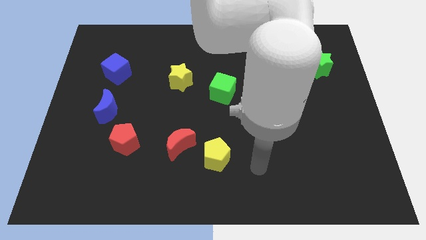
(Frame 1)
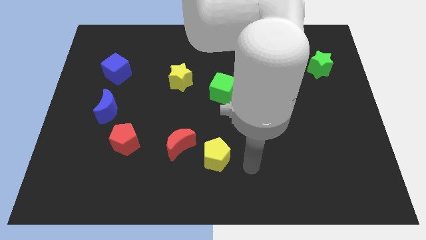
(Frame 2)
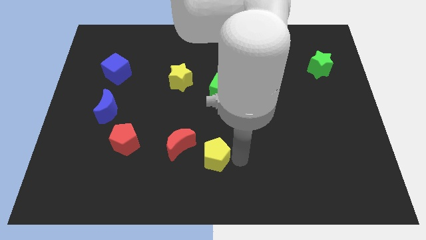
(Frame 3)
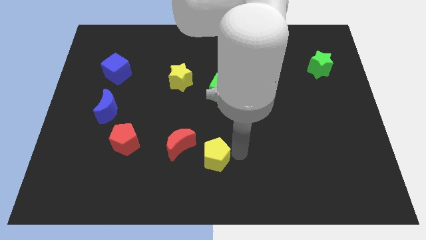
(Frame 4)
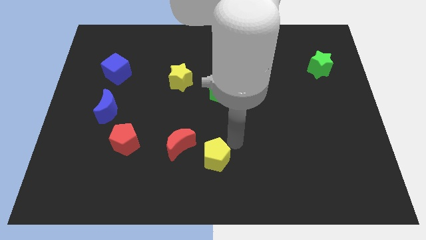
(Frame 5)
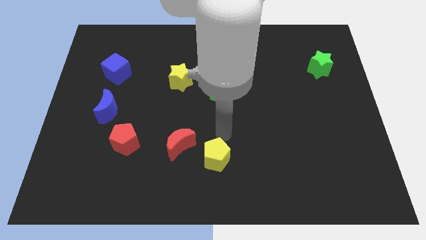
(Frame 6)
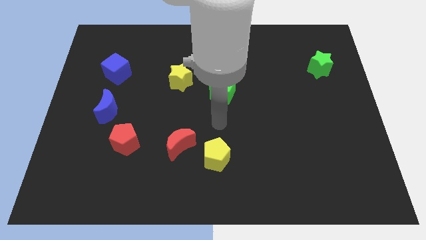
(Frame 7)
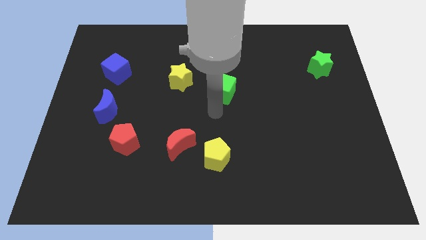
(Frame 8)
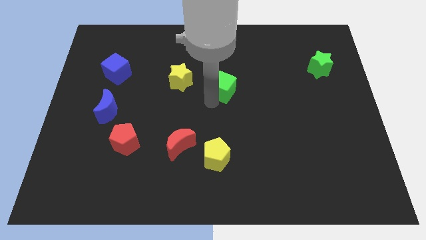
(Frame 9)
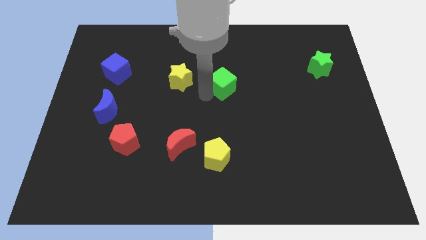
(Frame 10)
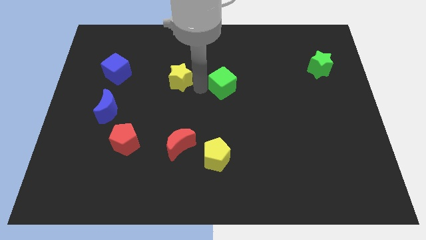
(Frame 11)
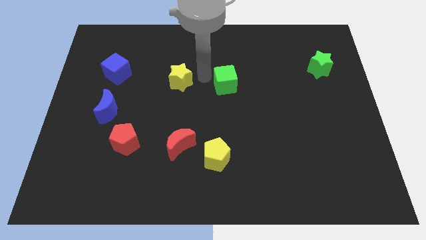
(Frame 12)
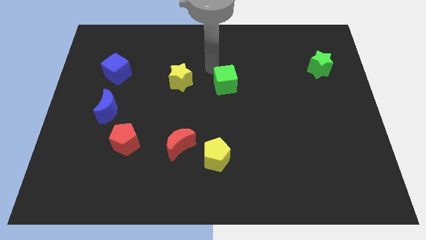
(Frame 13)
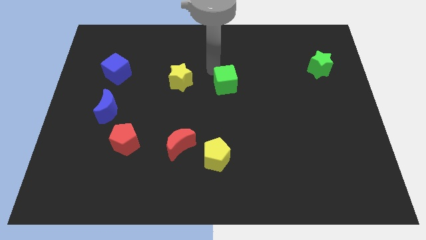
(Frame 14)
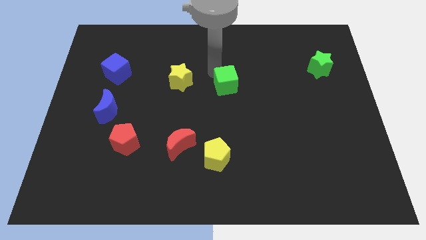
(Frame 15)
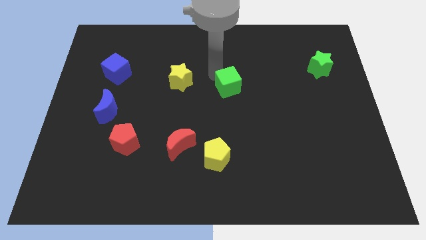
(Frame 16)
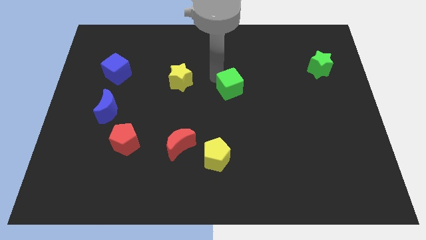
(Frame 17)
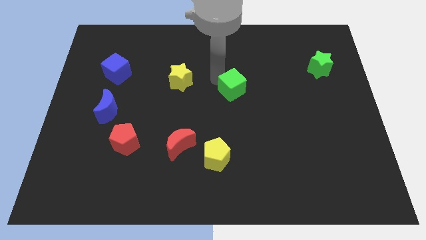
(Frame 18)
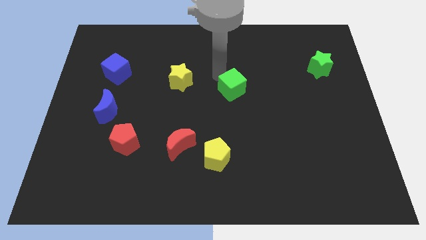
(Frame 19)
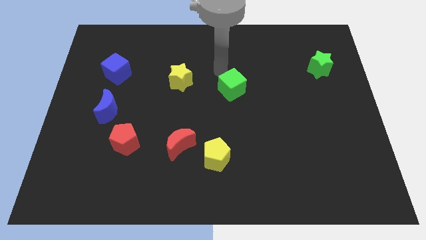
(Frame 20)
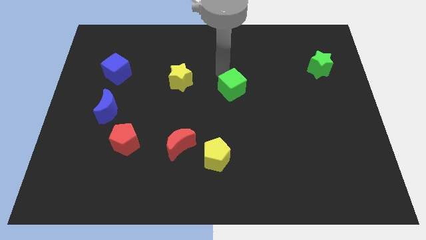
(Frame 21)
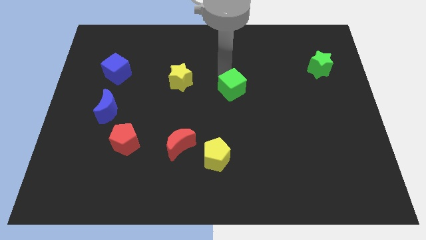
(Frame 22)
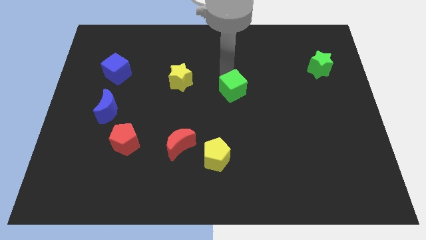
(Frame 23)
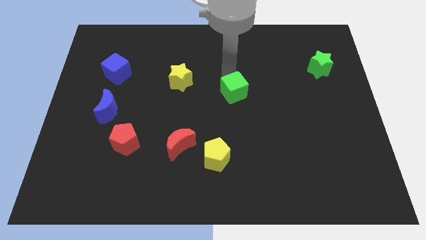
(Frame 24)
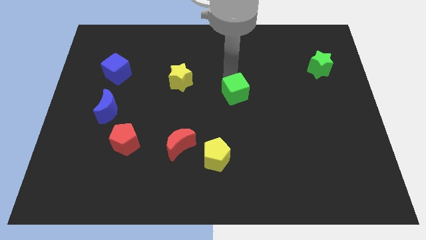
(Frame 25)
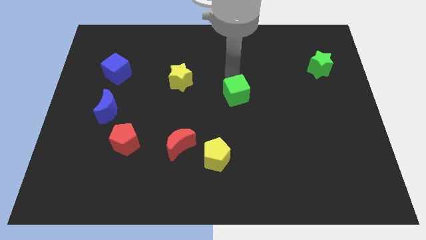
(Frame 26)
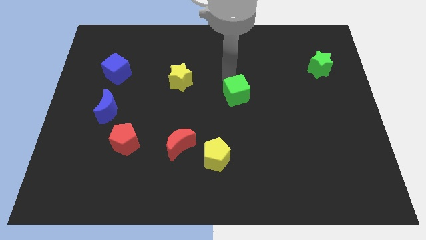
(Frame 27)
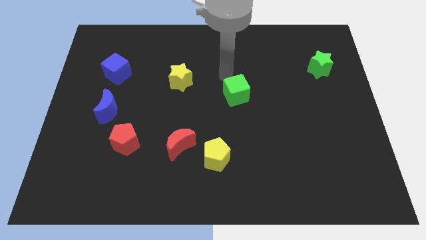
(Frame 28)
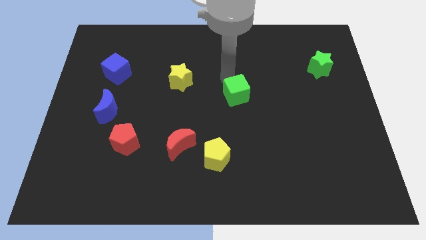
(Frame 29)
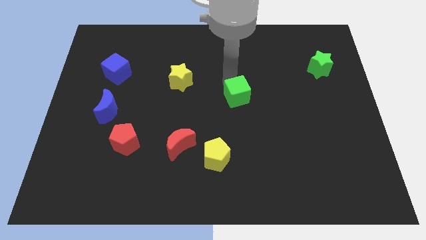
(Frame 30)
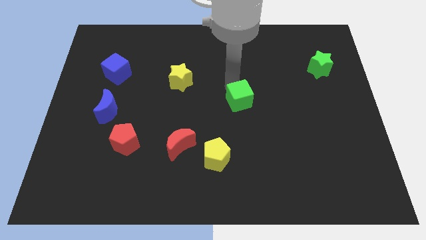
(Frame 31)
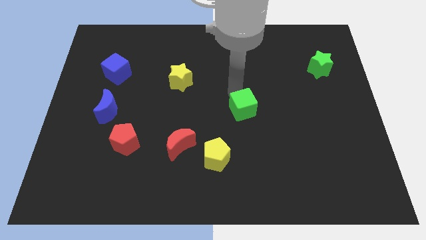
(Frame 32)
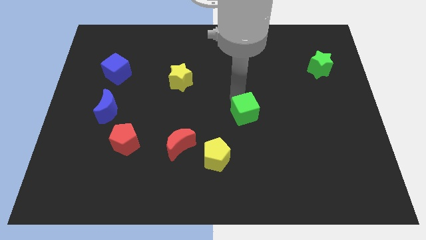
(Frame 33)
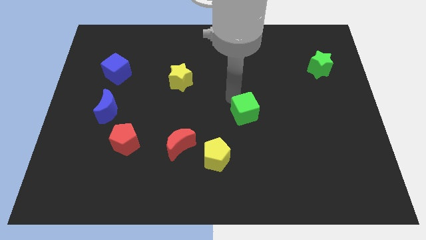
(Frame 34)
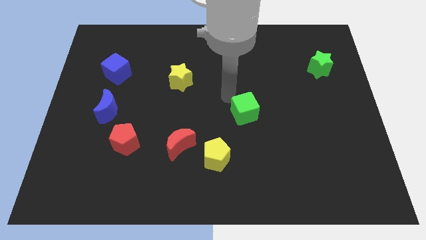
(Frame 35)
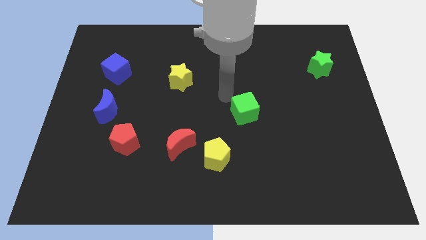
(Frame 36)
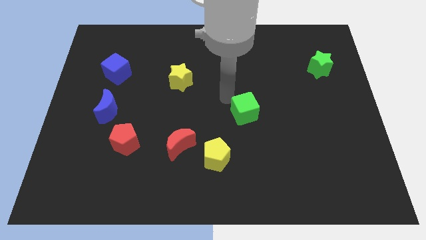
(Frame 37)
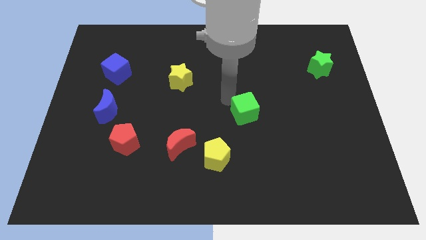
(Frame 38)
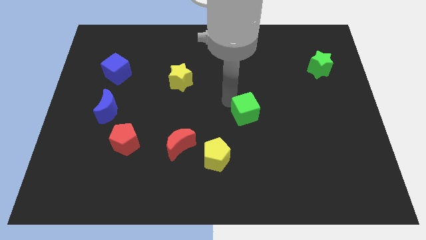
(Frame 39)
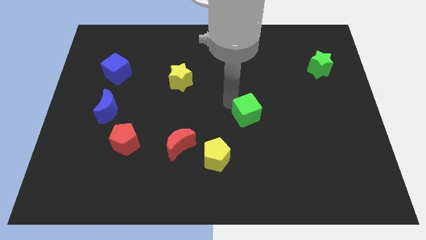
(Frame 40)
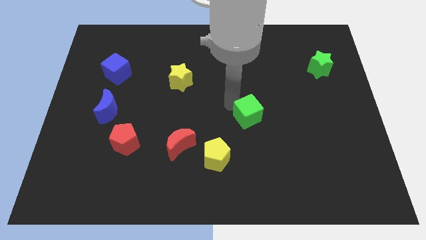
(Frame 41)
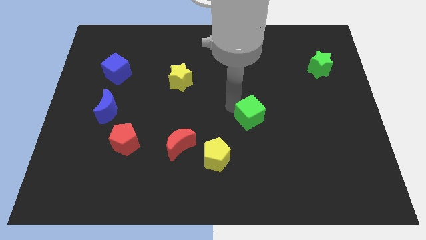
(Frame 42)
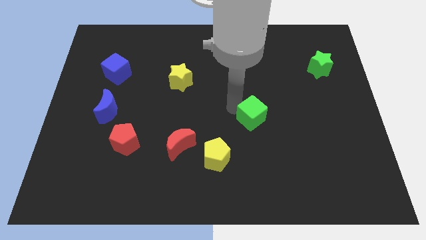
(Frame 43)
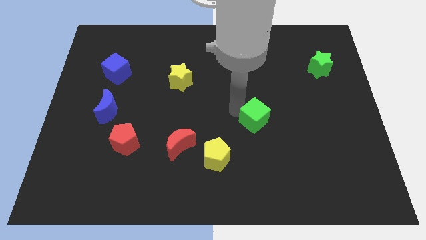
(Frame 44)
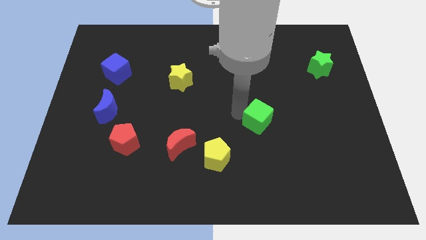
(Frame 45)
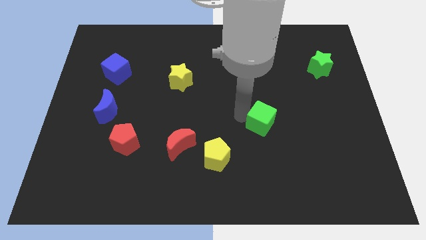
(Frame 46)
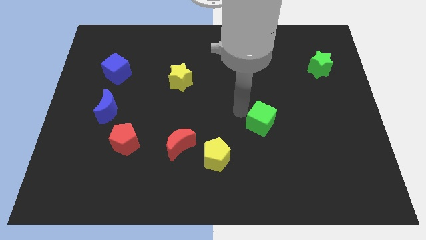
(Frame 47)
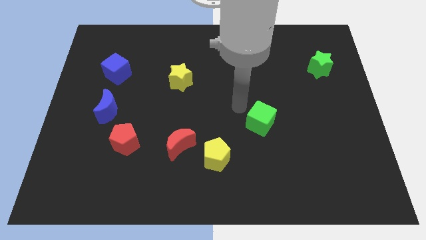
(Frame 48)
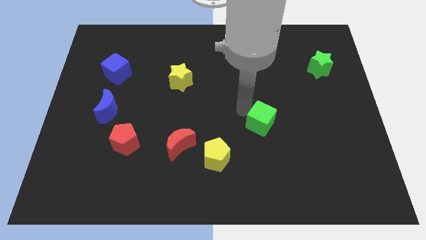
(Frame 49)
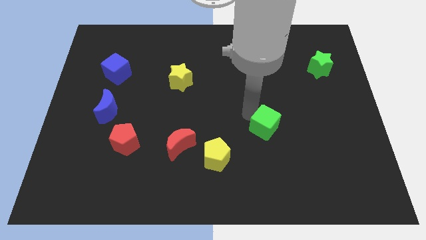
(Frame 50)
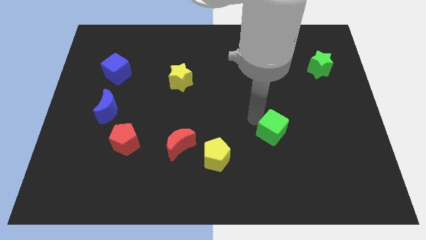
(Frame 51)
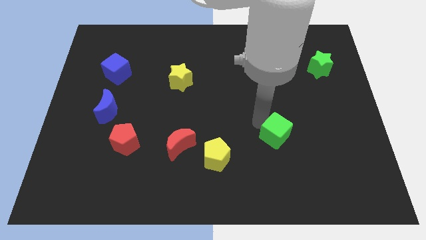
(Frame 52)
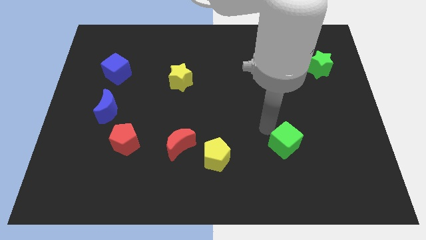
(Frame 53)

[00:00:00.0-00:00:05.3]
push the green cube diagonally downwards and right

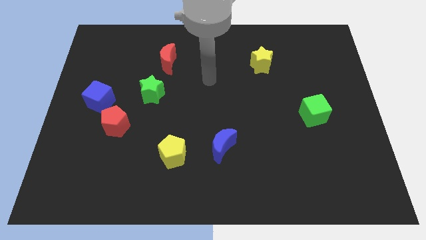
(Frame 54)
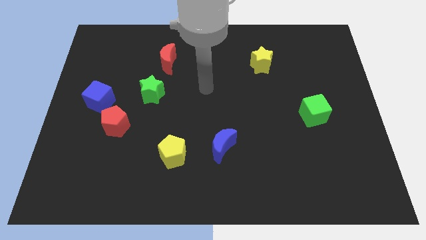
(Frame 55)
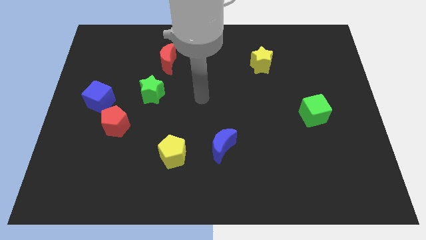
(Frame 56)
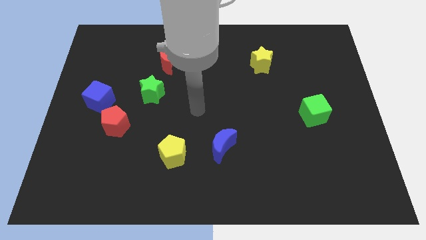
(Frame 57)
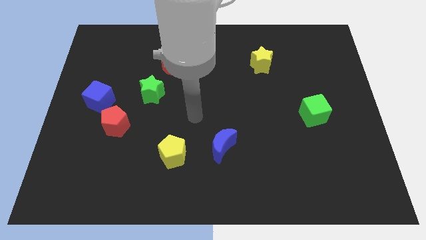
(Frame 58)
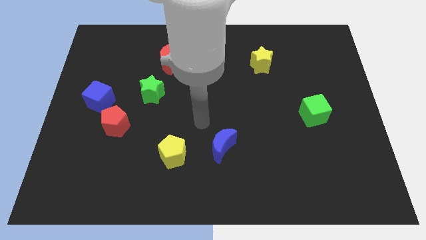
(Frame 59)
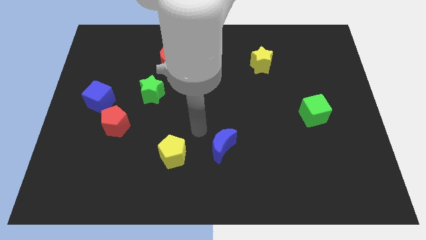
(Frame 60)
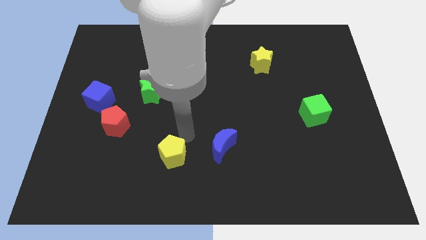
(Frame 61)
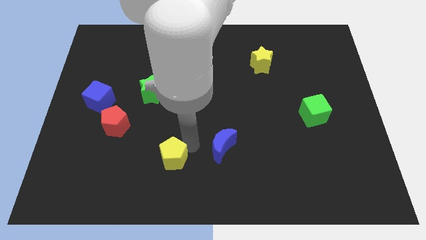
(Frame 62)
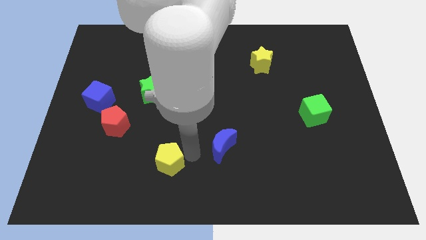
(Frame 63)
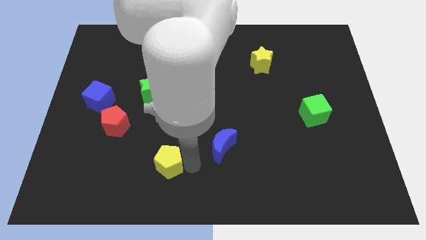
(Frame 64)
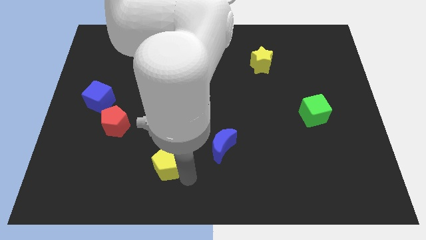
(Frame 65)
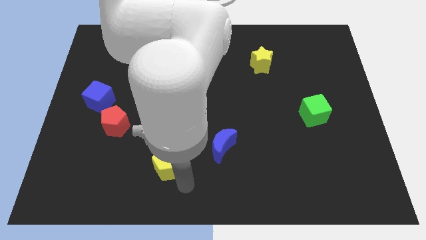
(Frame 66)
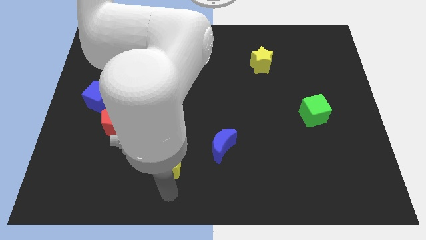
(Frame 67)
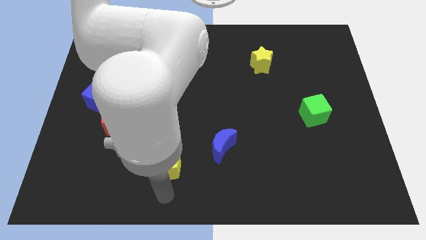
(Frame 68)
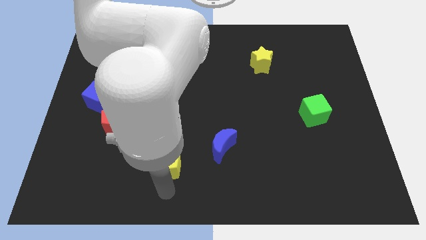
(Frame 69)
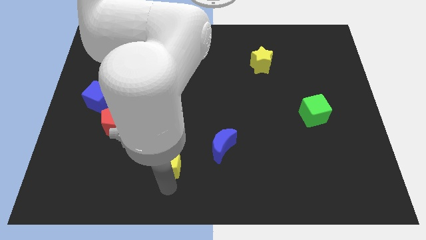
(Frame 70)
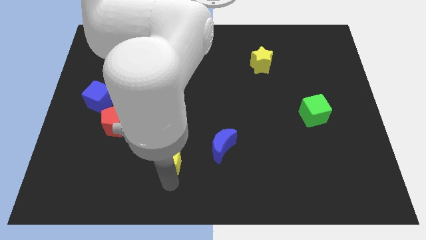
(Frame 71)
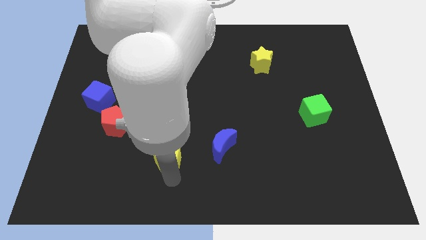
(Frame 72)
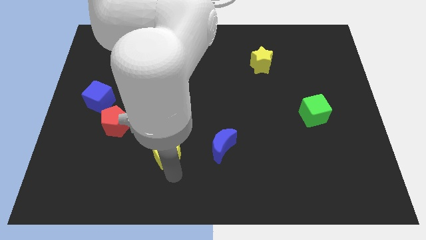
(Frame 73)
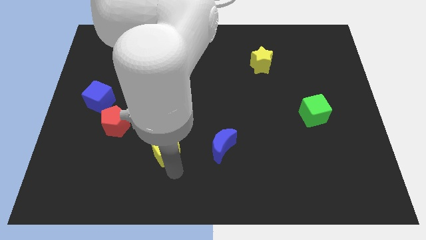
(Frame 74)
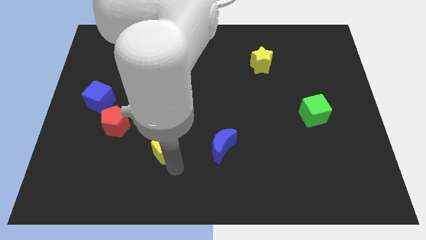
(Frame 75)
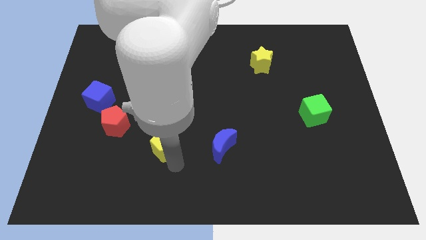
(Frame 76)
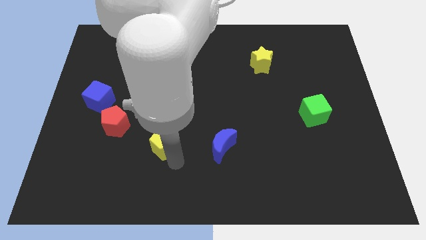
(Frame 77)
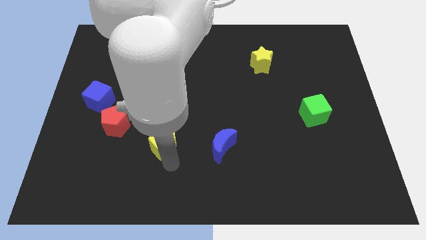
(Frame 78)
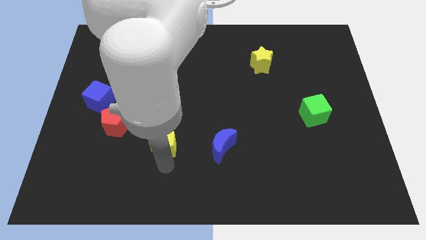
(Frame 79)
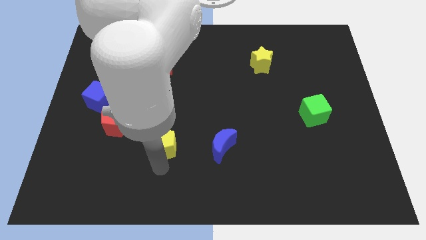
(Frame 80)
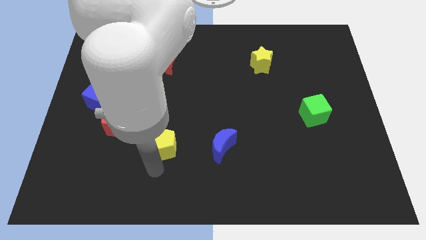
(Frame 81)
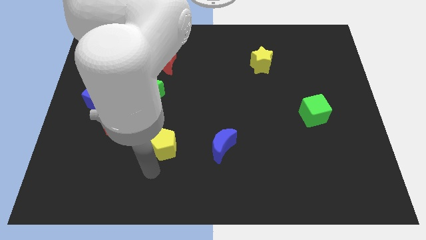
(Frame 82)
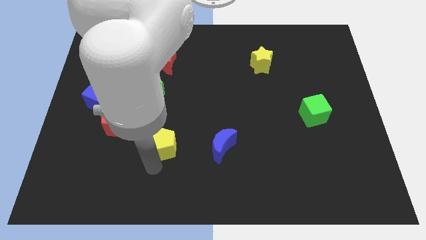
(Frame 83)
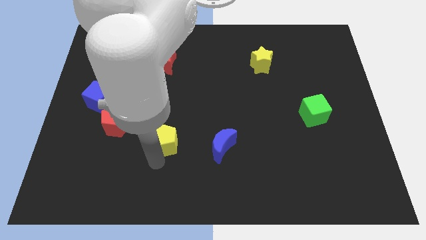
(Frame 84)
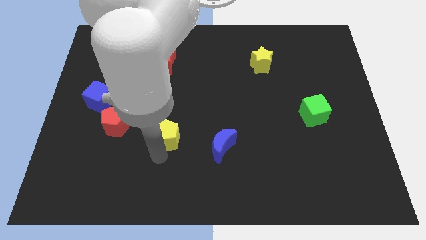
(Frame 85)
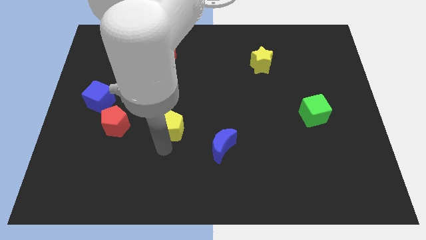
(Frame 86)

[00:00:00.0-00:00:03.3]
move the yellow pentagon upwards a bit
